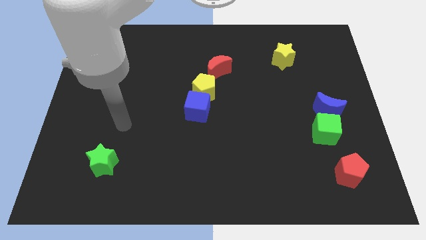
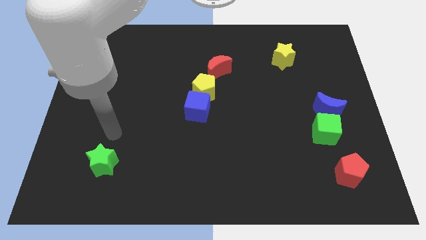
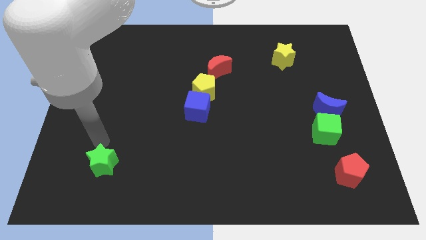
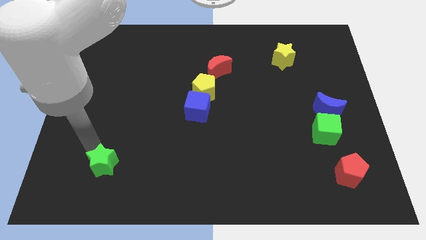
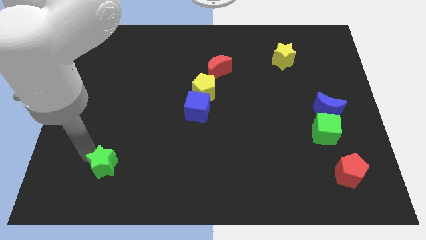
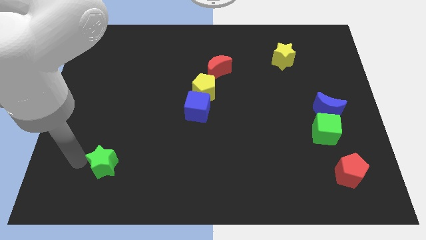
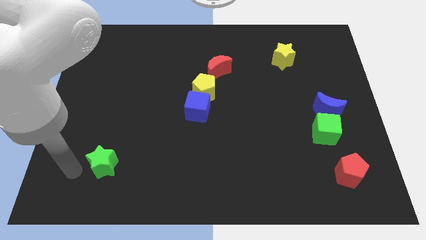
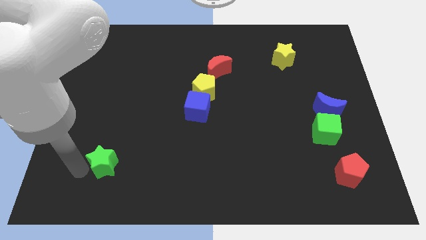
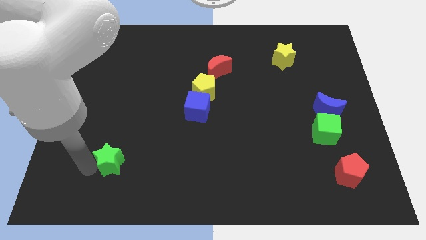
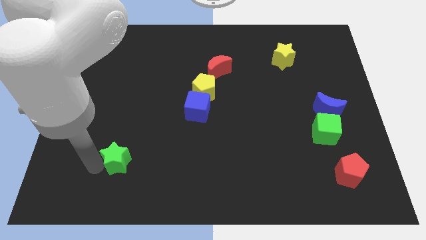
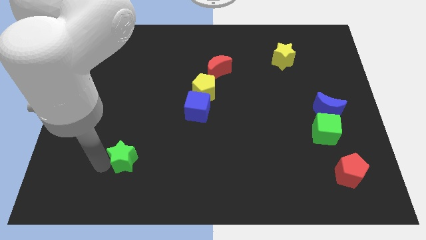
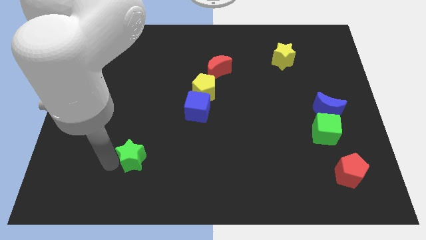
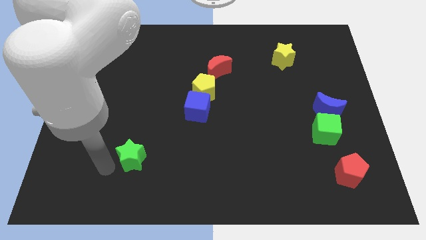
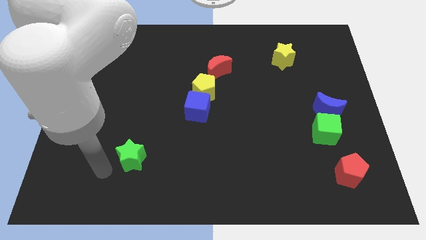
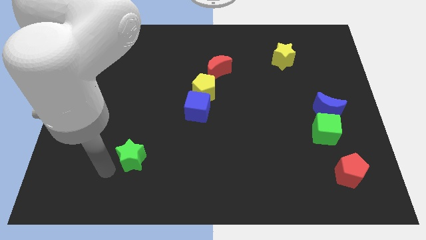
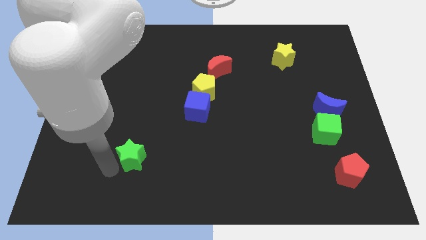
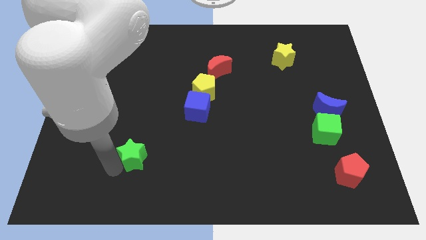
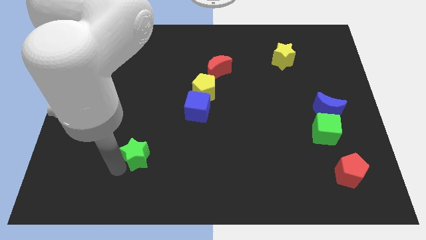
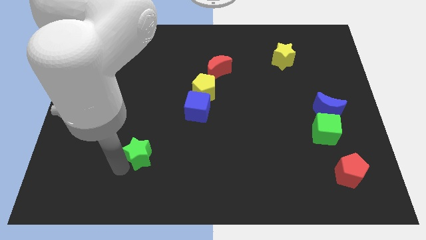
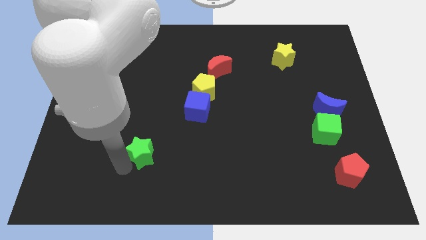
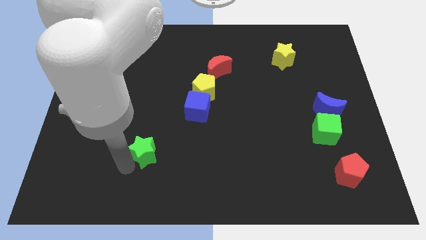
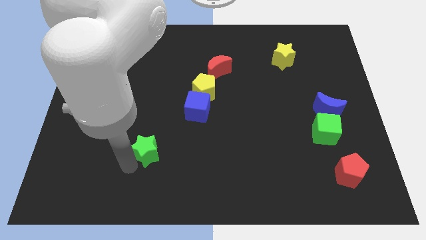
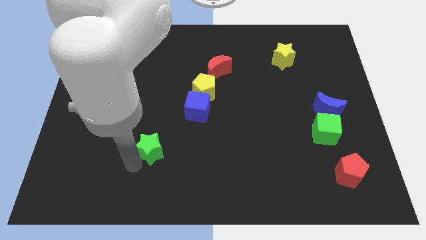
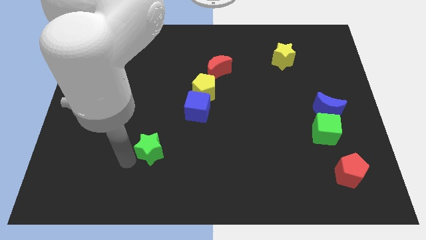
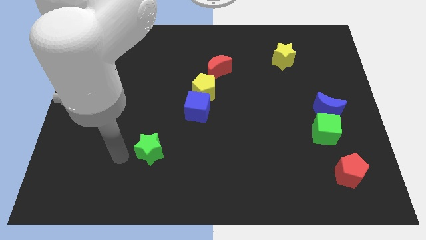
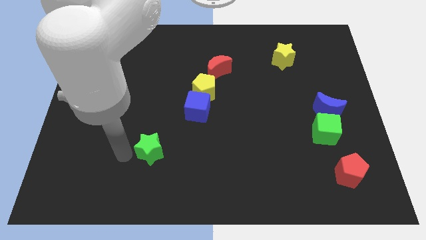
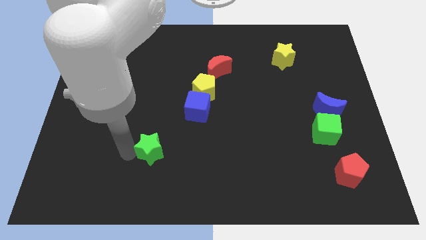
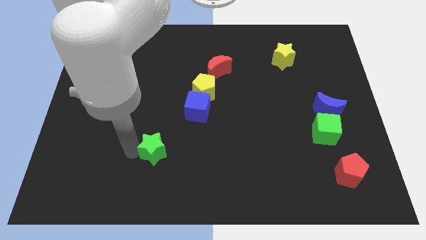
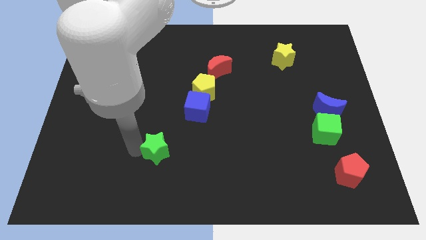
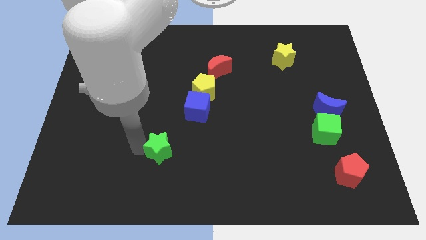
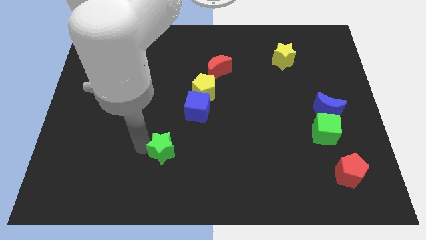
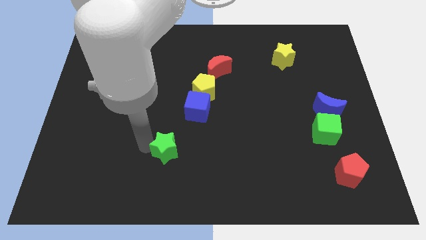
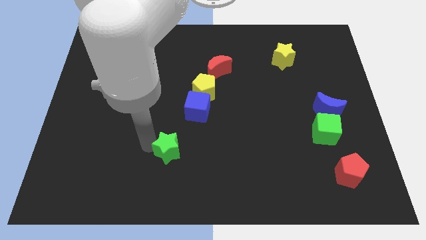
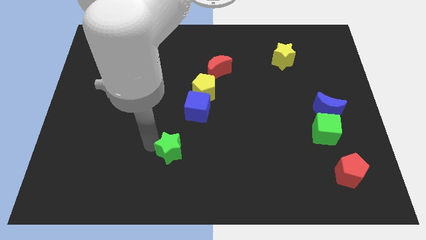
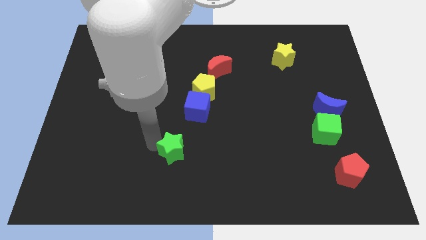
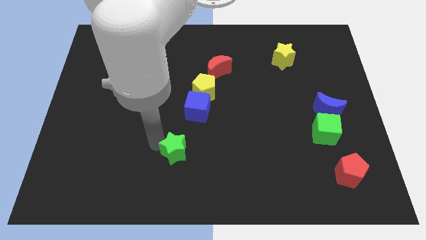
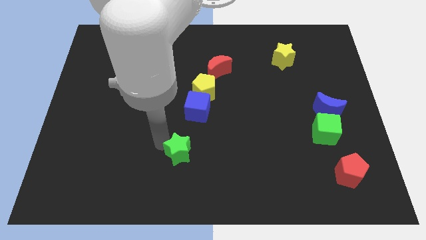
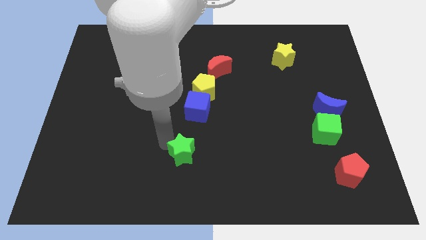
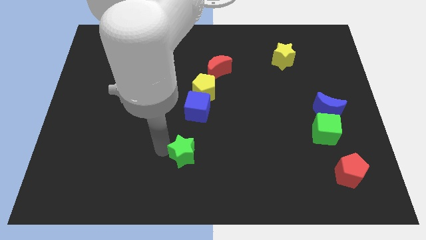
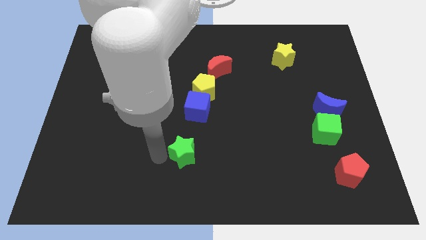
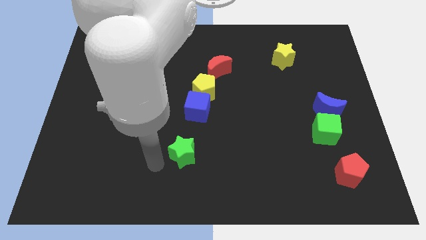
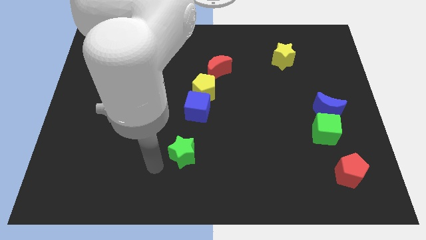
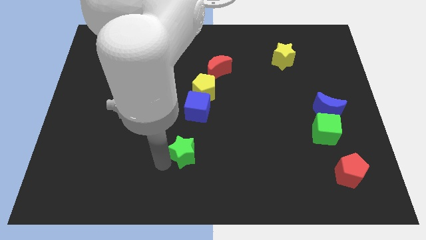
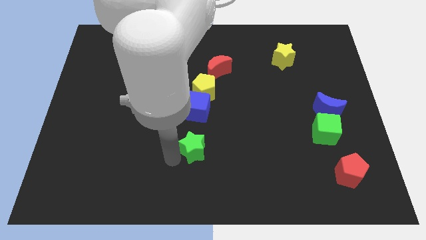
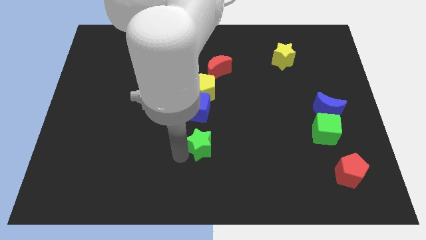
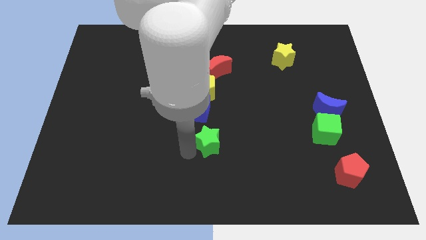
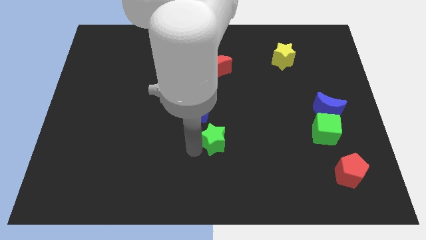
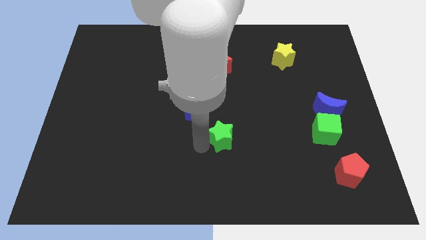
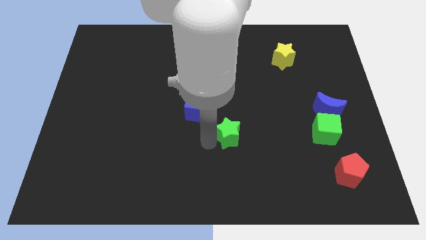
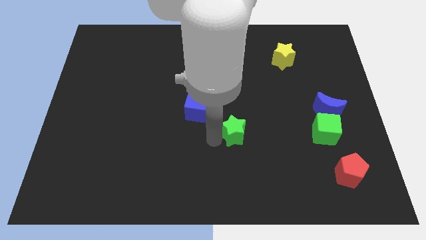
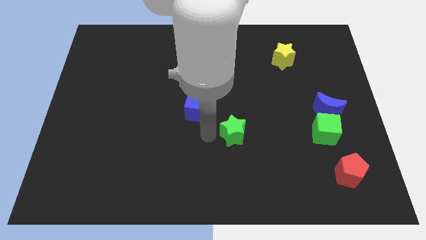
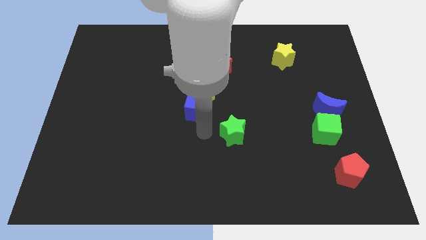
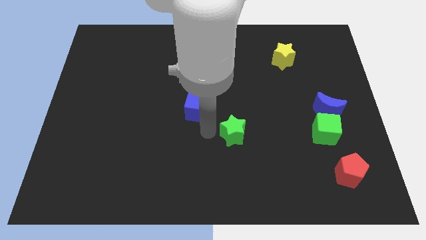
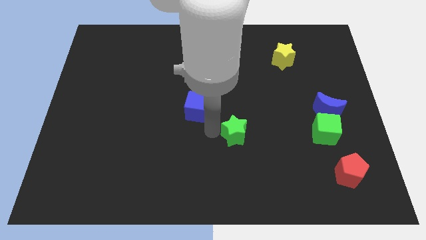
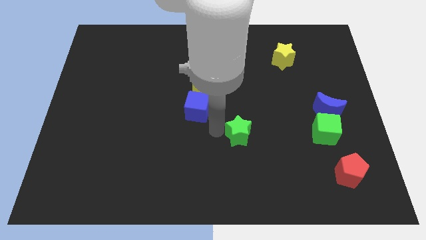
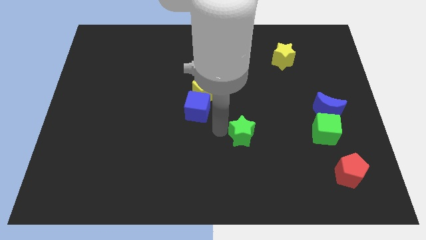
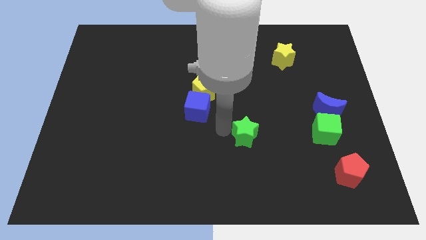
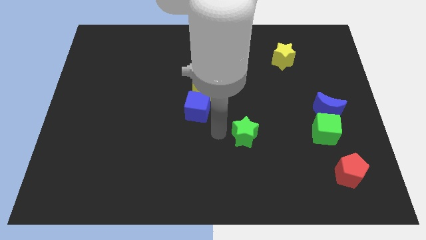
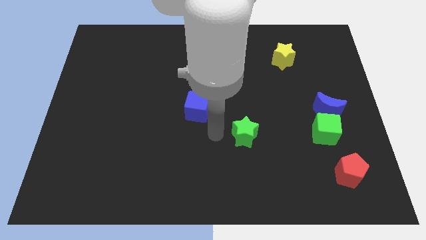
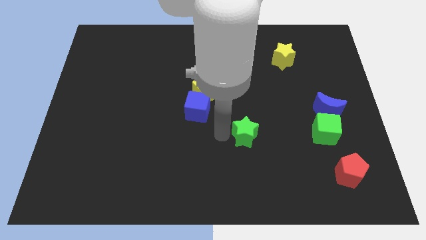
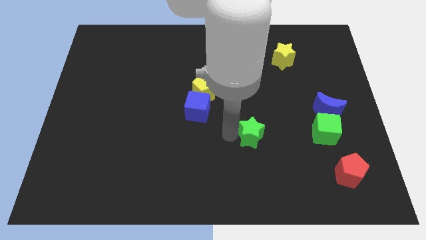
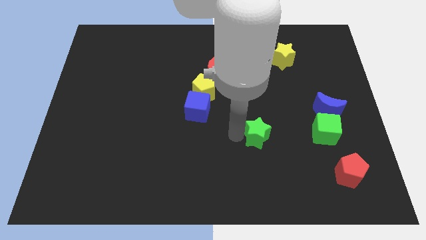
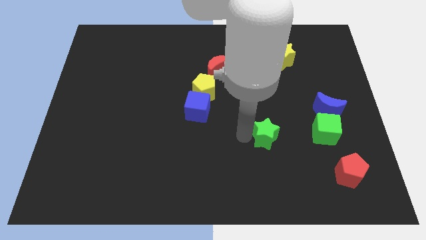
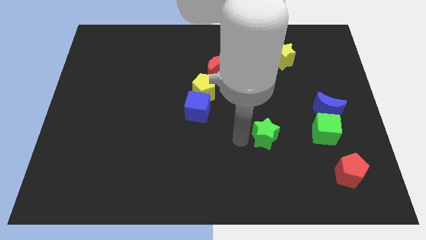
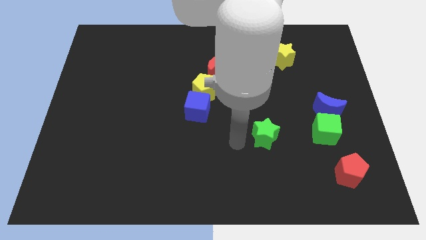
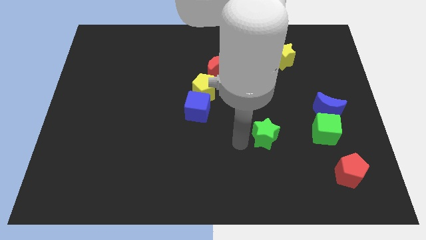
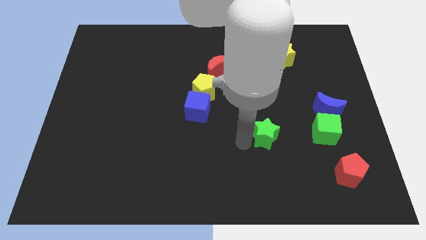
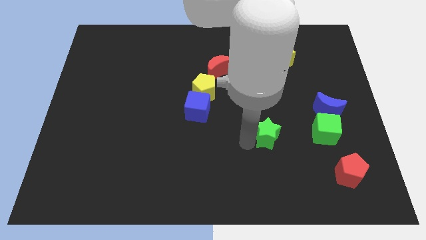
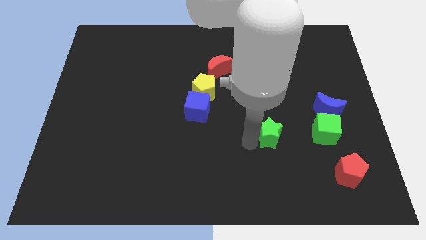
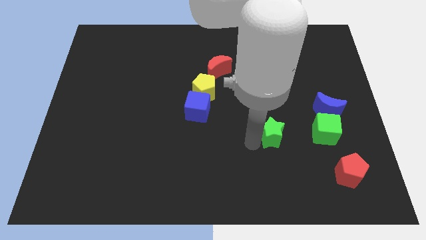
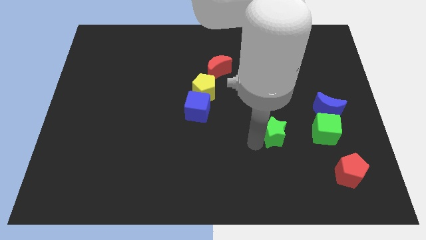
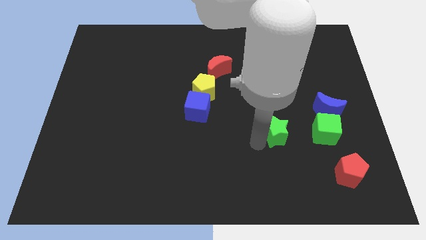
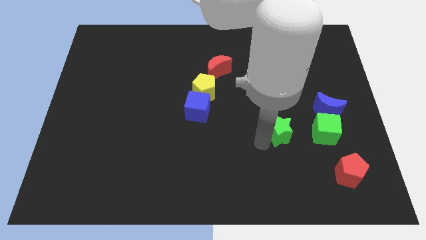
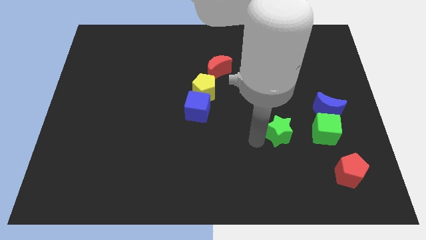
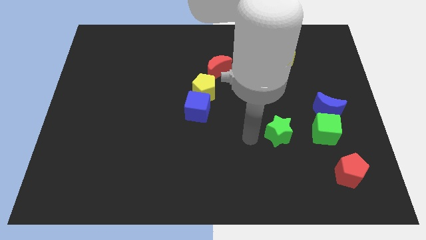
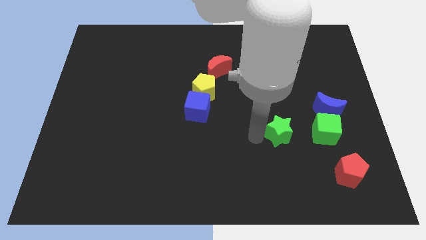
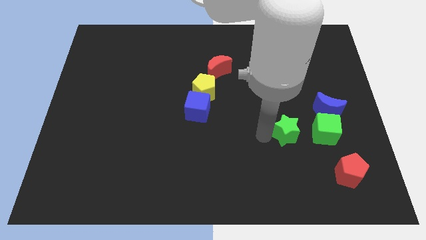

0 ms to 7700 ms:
push the green star to the bottom left side of the blue moon

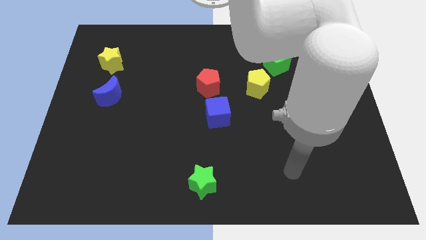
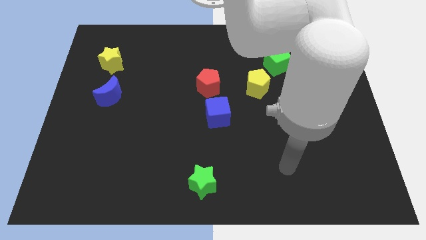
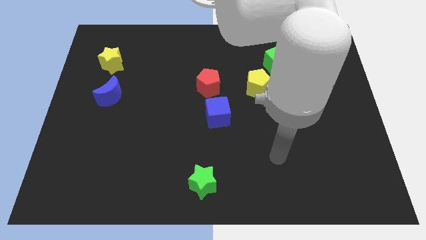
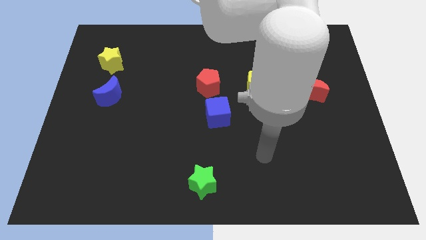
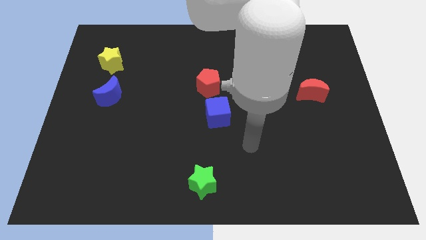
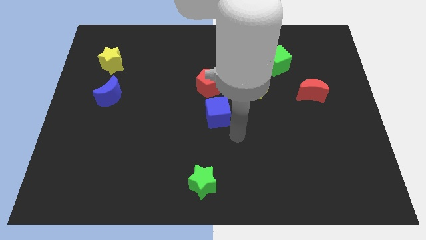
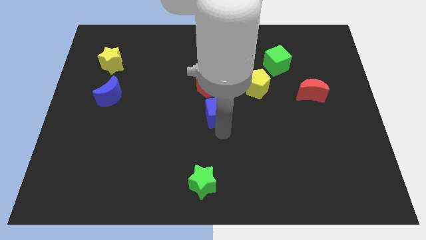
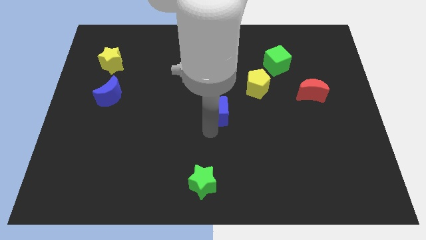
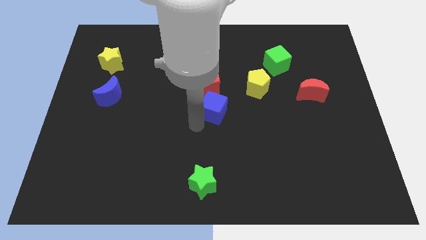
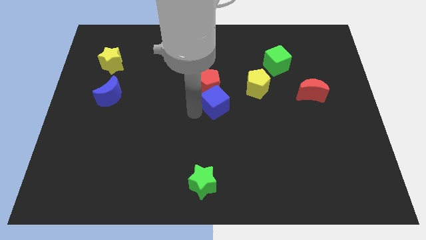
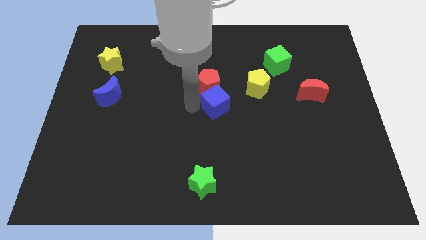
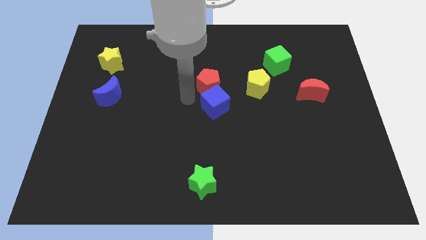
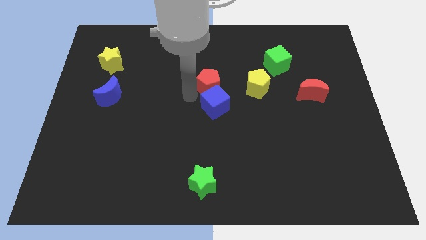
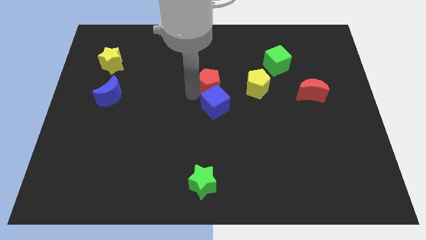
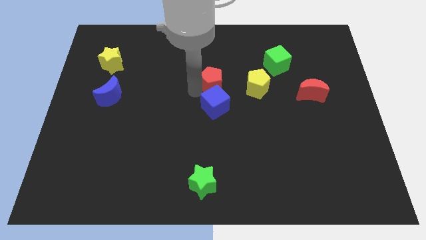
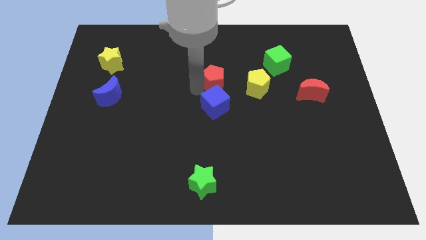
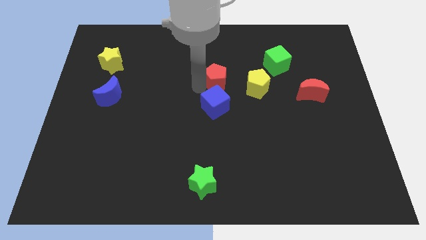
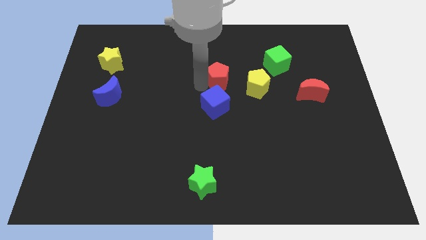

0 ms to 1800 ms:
push the red pentagon to the top left of the yellow pentagon
